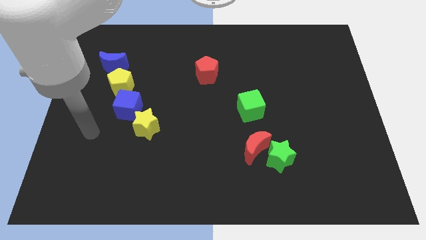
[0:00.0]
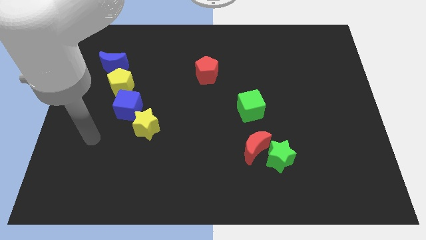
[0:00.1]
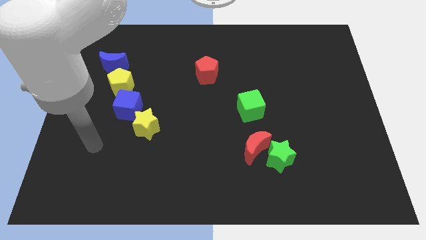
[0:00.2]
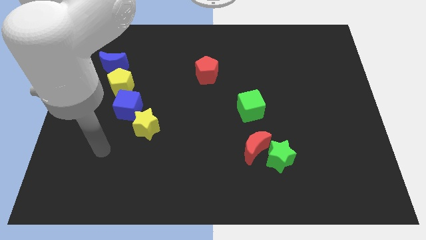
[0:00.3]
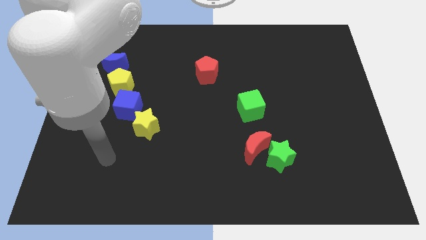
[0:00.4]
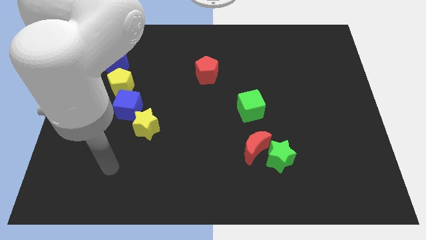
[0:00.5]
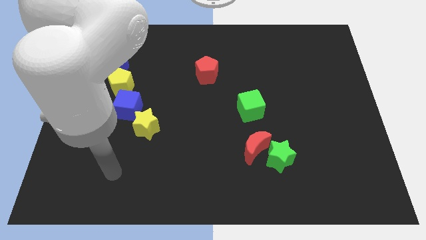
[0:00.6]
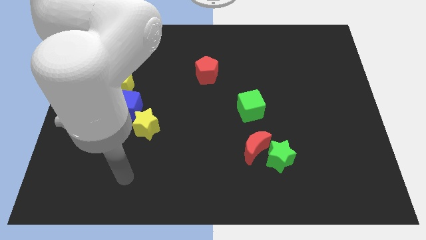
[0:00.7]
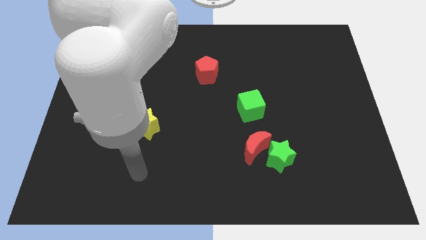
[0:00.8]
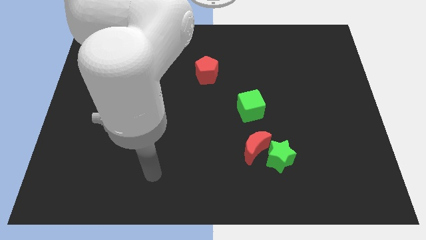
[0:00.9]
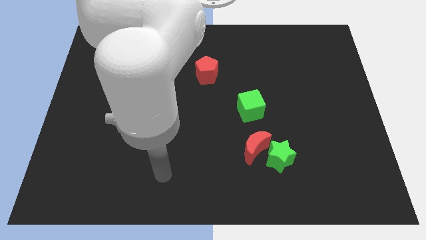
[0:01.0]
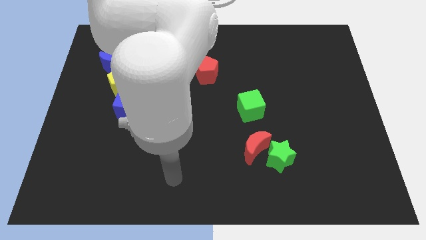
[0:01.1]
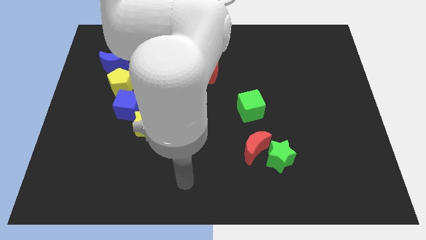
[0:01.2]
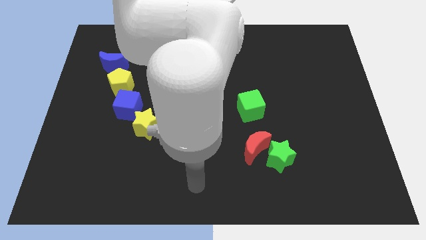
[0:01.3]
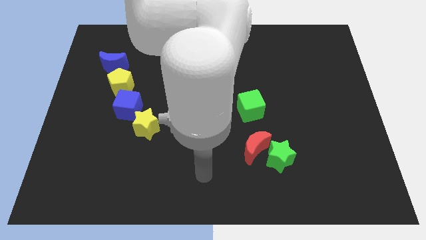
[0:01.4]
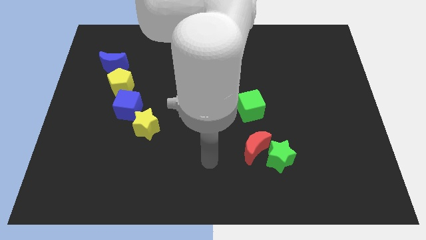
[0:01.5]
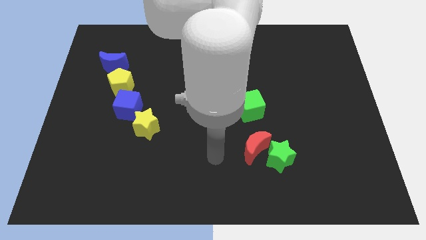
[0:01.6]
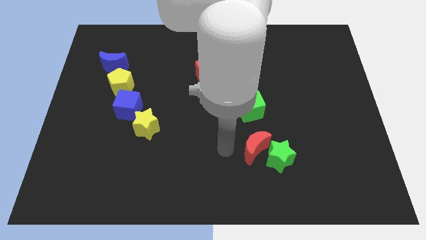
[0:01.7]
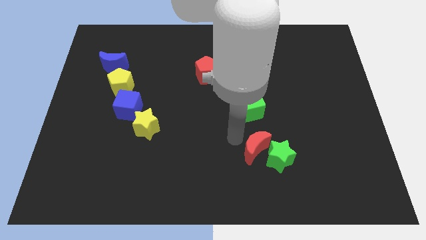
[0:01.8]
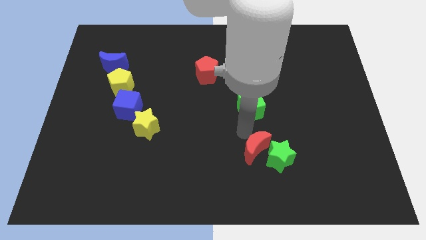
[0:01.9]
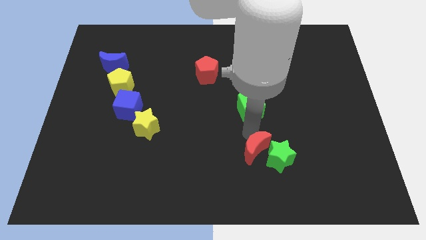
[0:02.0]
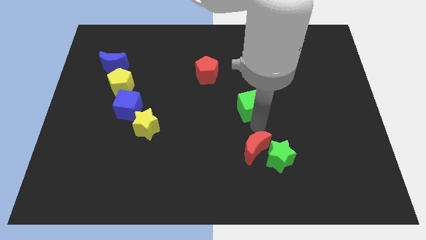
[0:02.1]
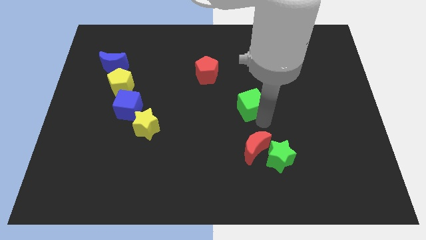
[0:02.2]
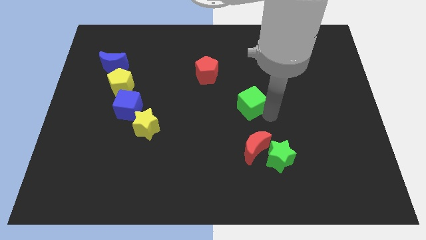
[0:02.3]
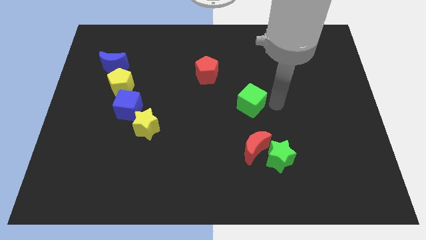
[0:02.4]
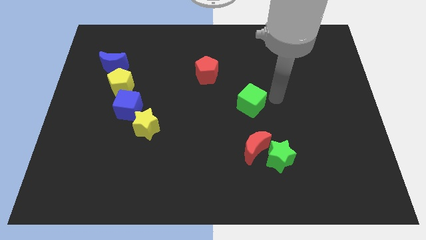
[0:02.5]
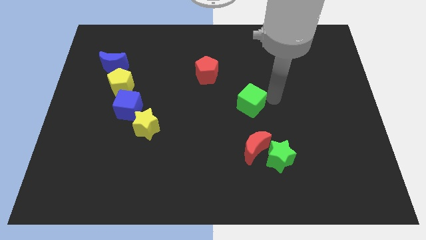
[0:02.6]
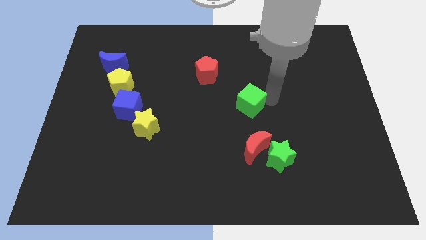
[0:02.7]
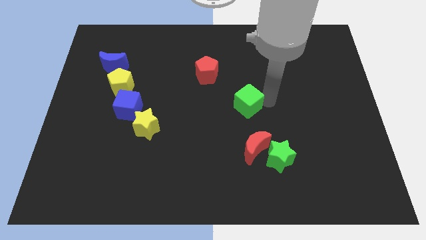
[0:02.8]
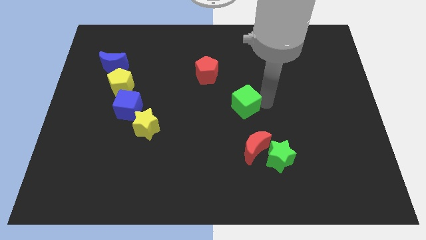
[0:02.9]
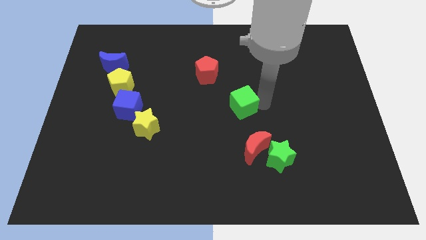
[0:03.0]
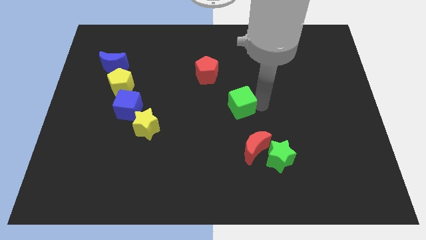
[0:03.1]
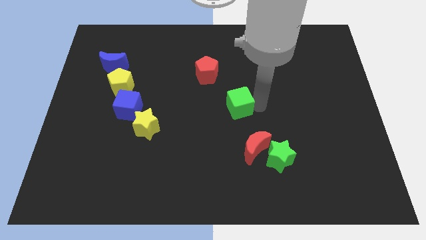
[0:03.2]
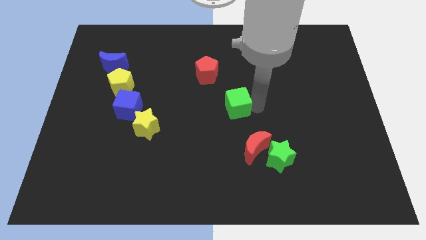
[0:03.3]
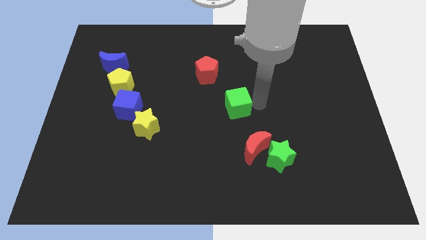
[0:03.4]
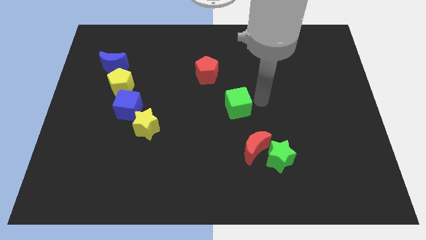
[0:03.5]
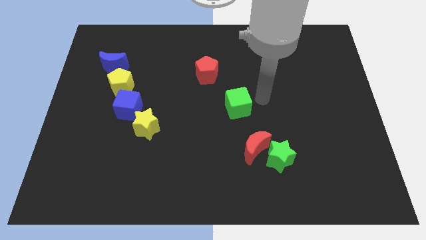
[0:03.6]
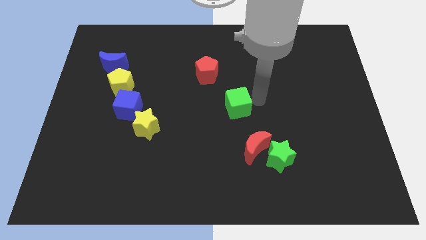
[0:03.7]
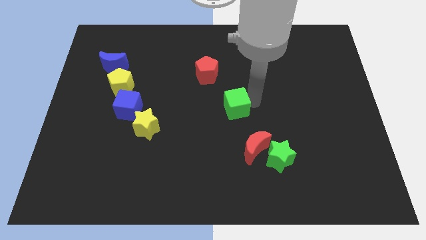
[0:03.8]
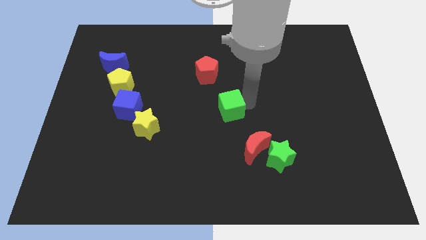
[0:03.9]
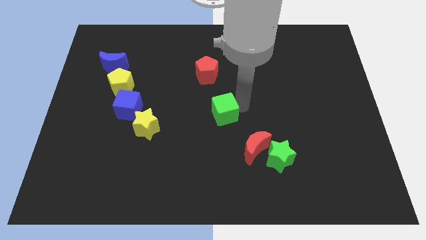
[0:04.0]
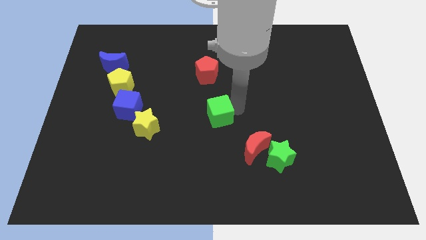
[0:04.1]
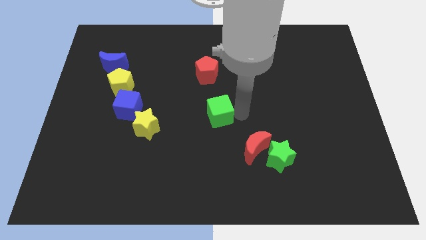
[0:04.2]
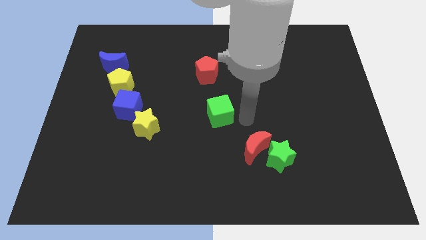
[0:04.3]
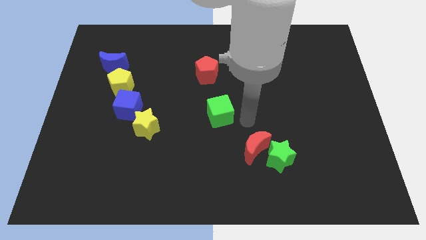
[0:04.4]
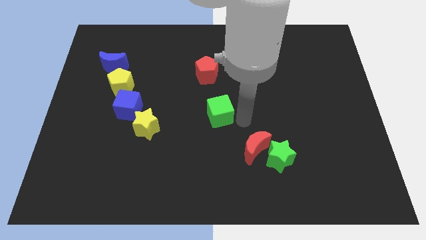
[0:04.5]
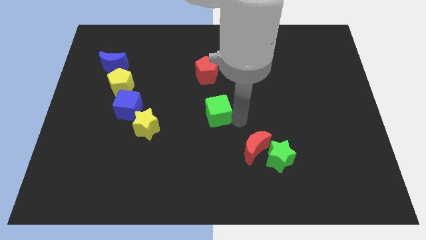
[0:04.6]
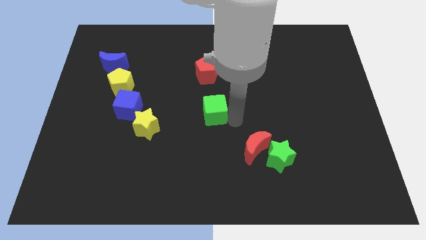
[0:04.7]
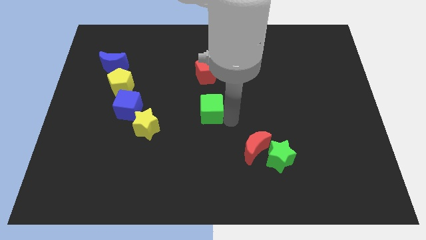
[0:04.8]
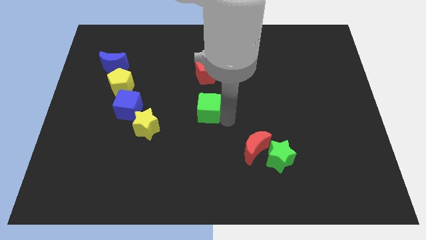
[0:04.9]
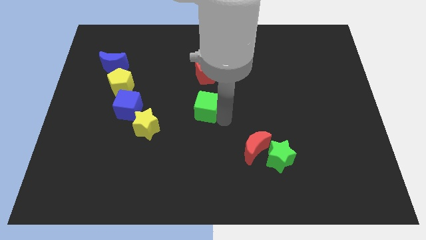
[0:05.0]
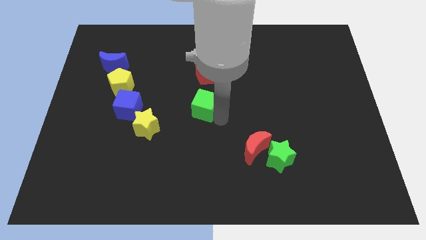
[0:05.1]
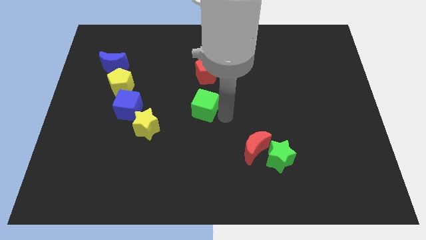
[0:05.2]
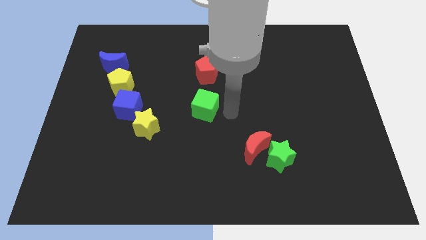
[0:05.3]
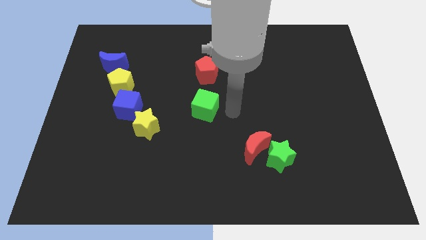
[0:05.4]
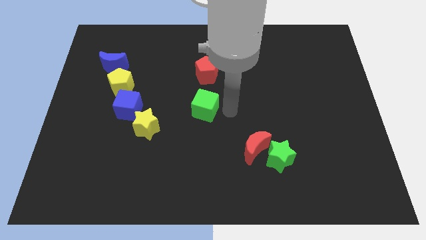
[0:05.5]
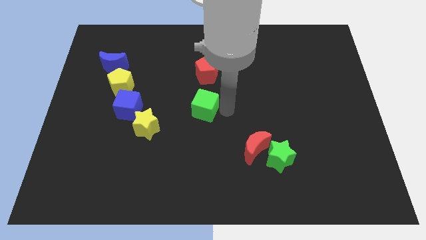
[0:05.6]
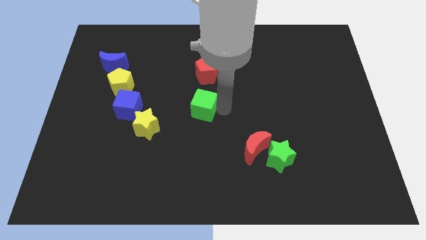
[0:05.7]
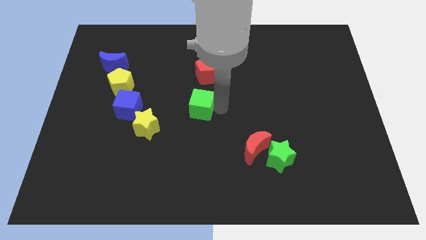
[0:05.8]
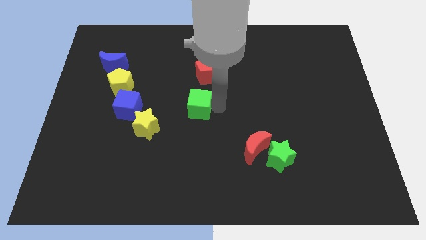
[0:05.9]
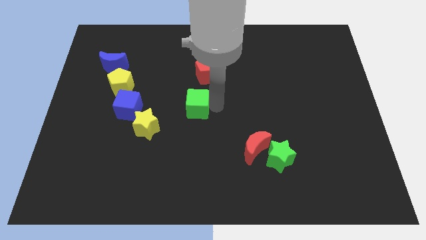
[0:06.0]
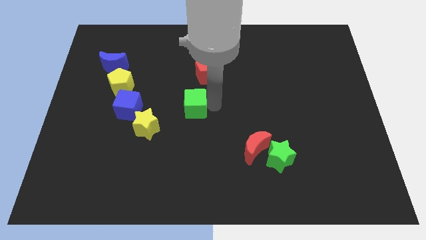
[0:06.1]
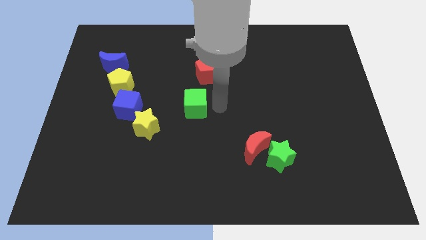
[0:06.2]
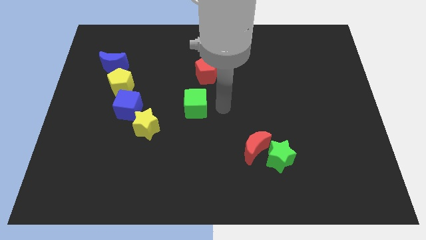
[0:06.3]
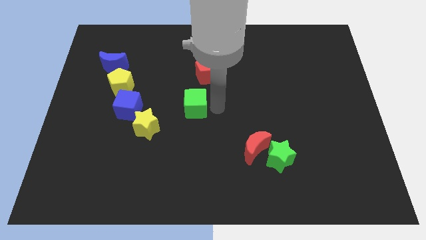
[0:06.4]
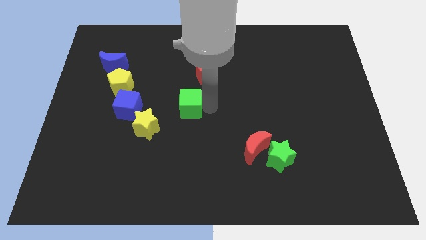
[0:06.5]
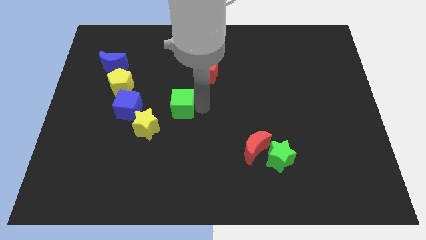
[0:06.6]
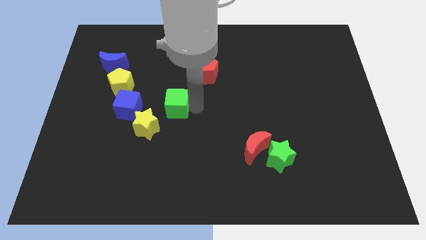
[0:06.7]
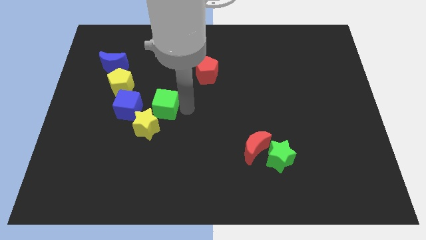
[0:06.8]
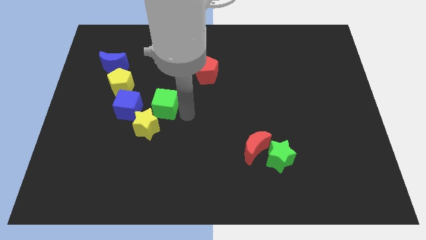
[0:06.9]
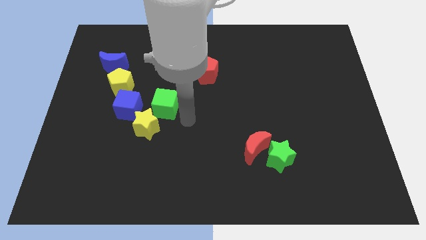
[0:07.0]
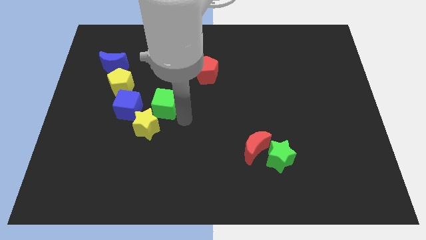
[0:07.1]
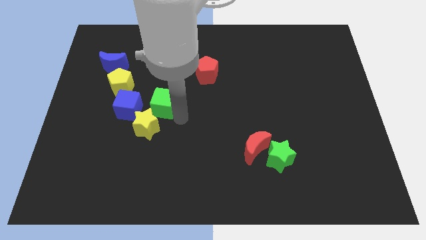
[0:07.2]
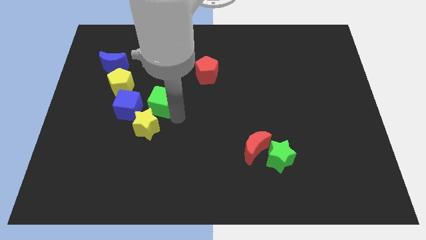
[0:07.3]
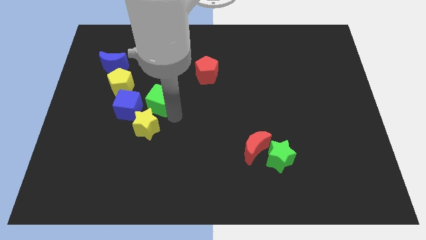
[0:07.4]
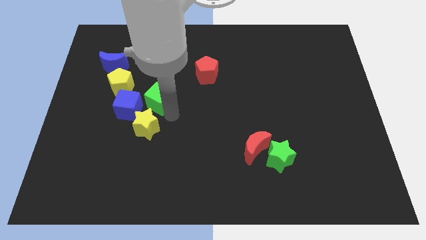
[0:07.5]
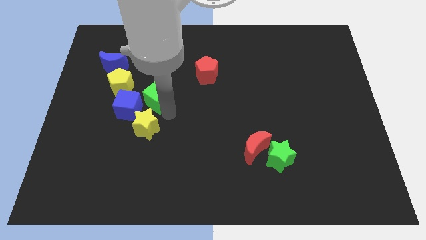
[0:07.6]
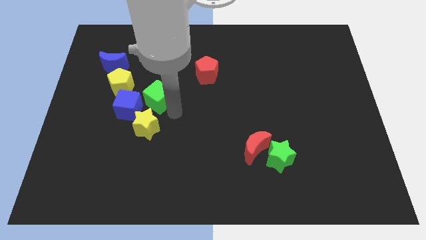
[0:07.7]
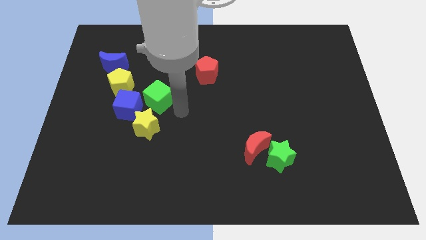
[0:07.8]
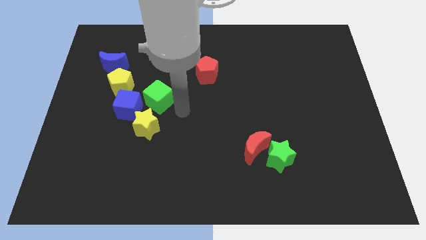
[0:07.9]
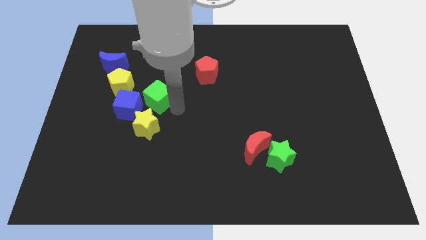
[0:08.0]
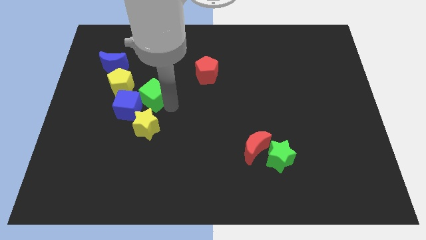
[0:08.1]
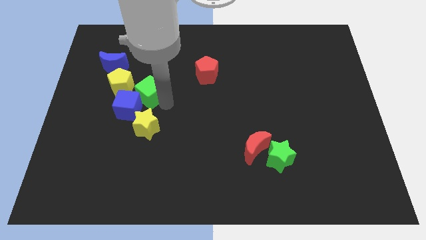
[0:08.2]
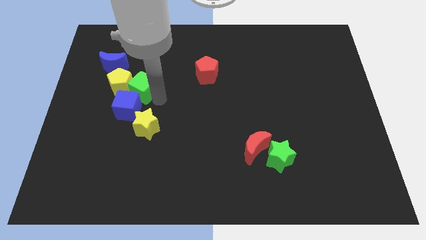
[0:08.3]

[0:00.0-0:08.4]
move the green cube close to the yellow pentagon
